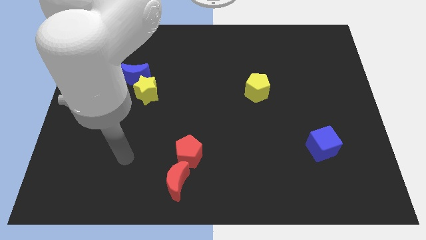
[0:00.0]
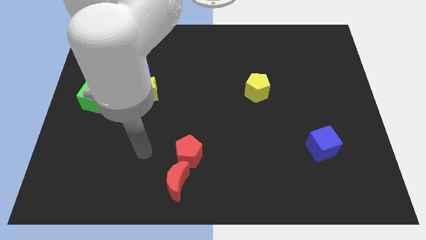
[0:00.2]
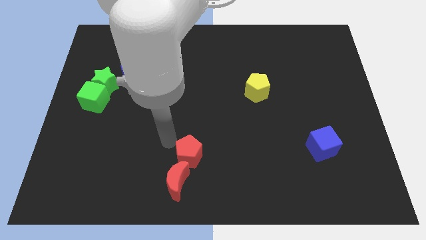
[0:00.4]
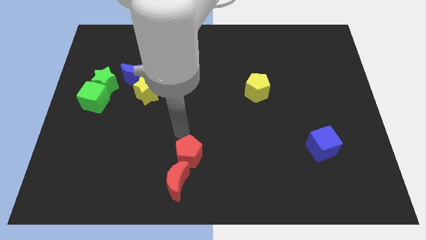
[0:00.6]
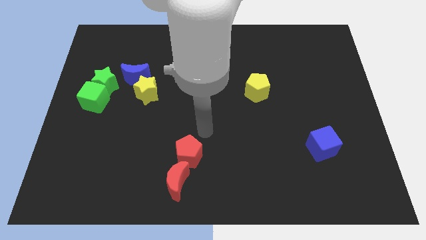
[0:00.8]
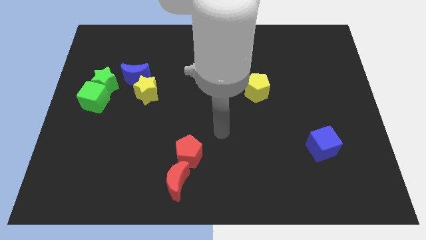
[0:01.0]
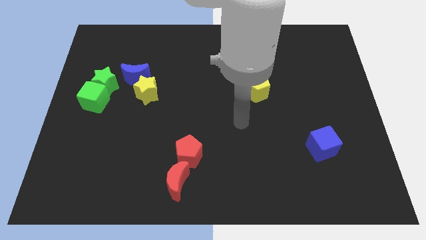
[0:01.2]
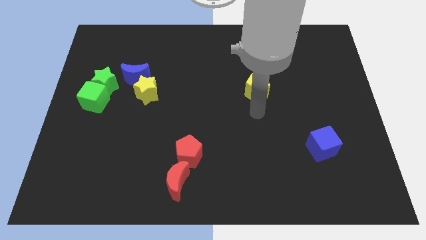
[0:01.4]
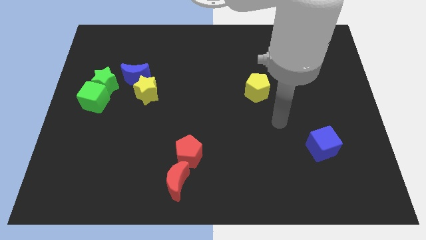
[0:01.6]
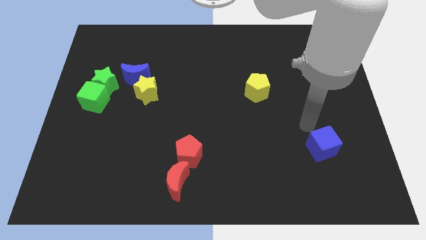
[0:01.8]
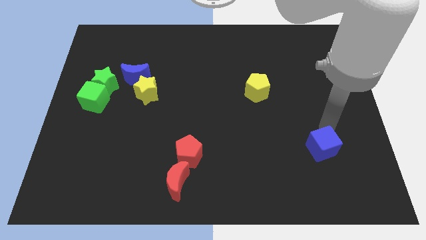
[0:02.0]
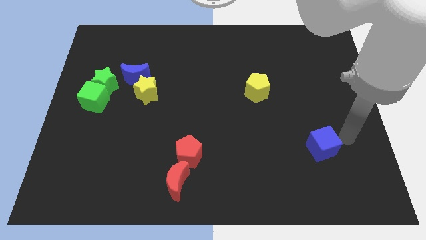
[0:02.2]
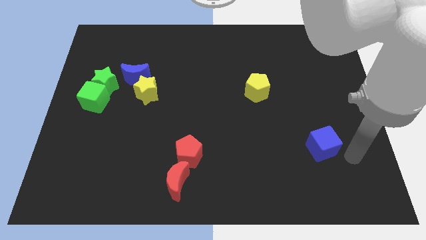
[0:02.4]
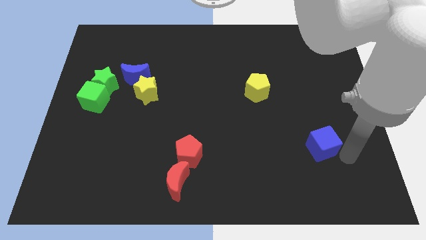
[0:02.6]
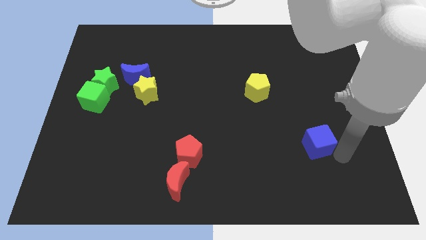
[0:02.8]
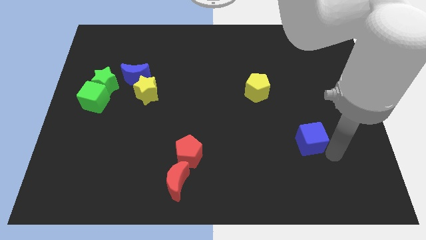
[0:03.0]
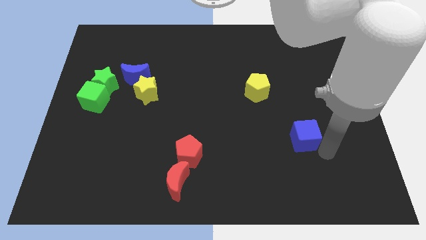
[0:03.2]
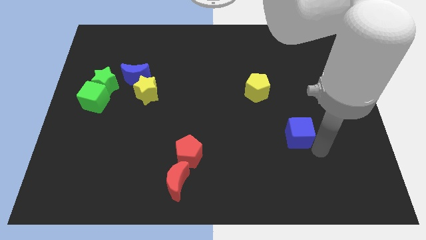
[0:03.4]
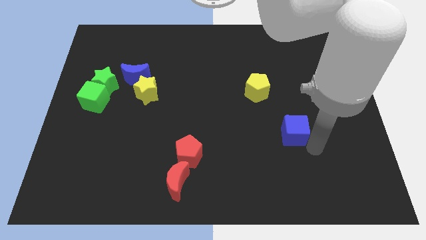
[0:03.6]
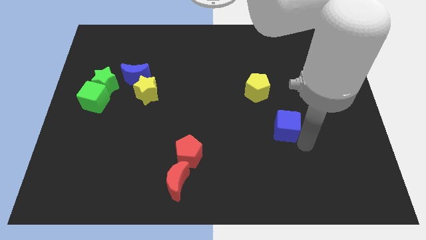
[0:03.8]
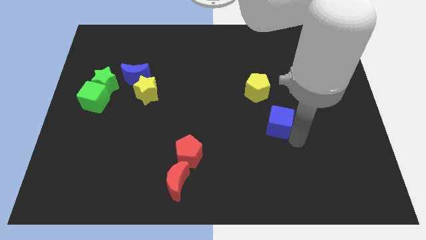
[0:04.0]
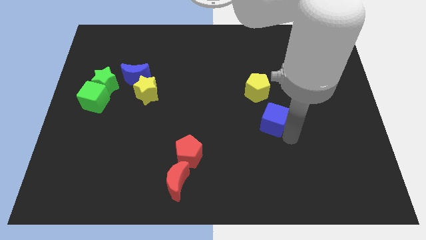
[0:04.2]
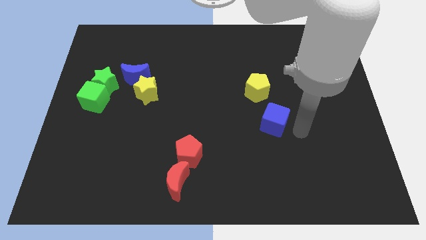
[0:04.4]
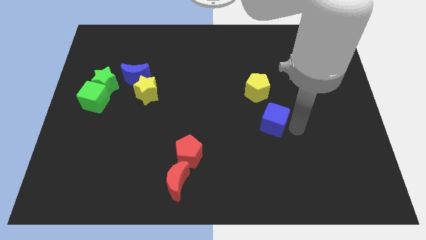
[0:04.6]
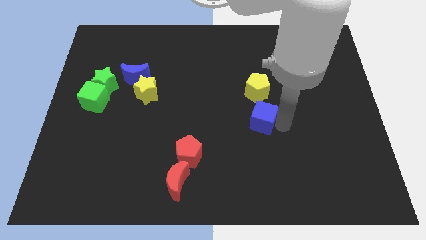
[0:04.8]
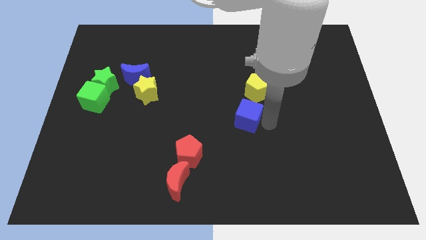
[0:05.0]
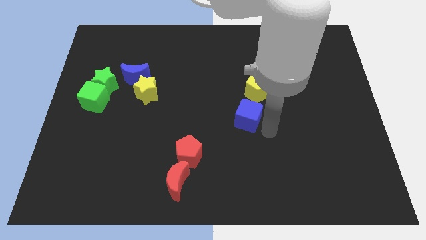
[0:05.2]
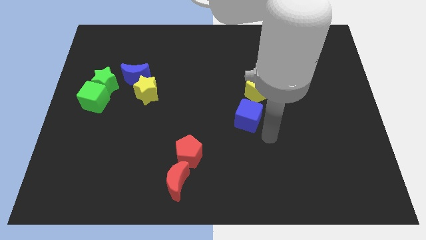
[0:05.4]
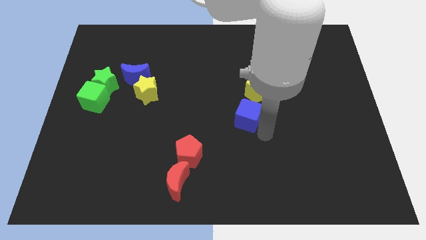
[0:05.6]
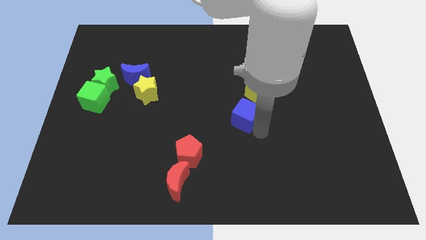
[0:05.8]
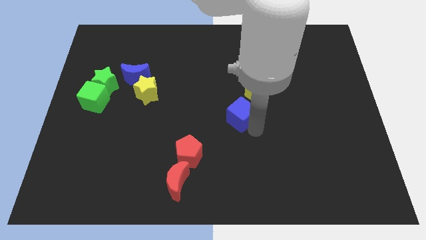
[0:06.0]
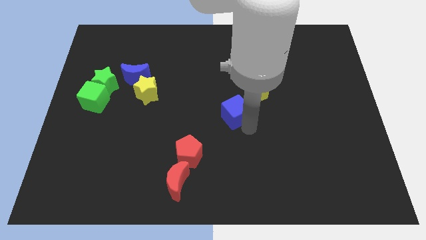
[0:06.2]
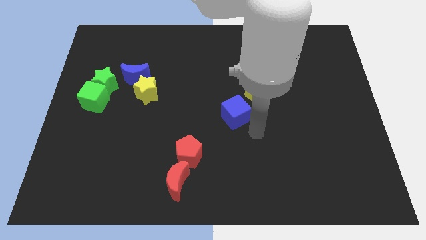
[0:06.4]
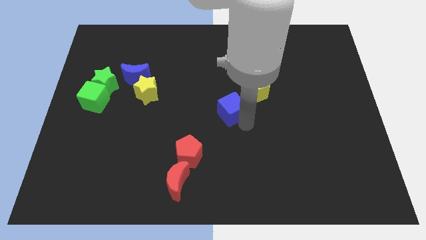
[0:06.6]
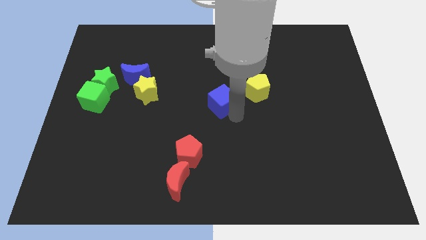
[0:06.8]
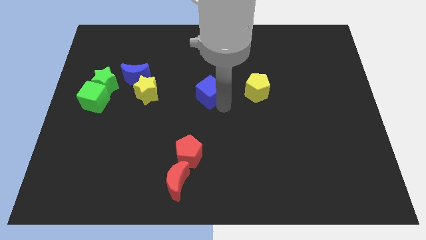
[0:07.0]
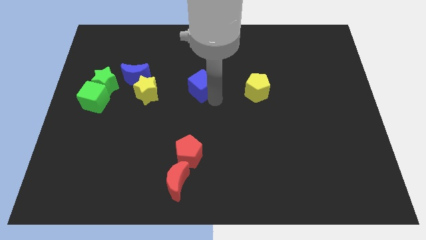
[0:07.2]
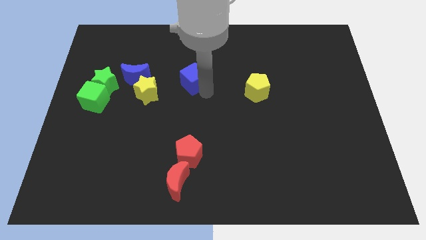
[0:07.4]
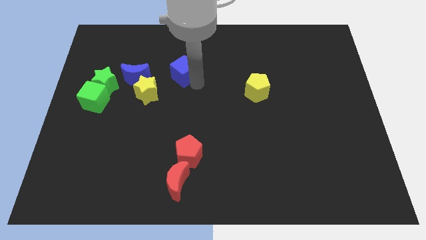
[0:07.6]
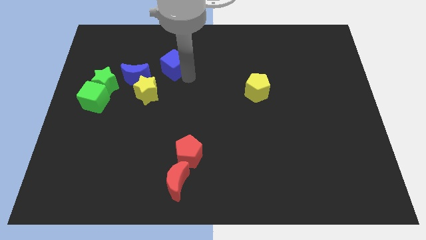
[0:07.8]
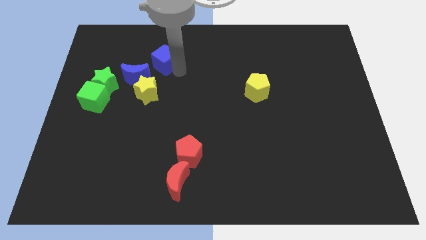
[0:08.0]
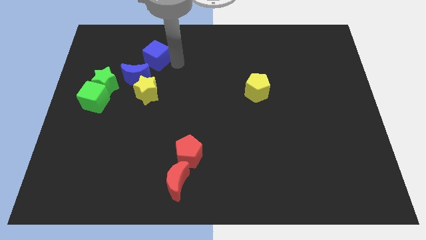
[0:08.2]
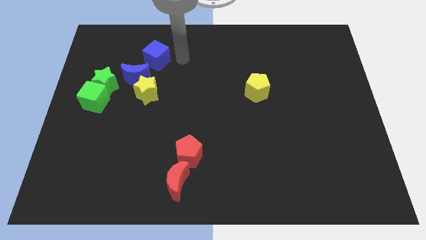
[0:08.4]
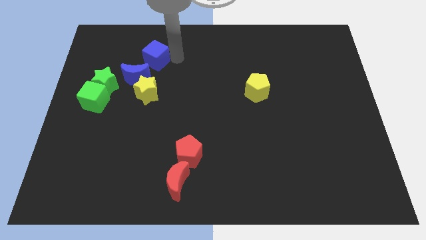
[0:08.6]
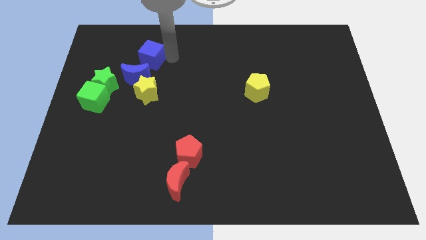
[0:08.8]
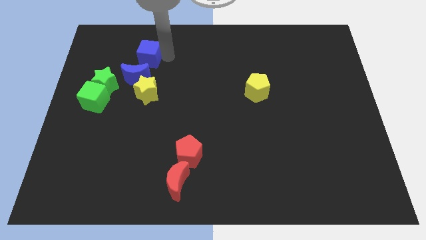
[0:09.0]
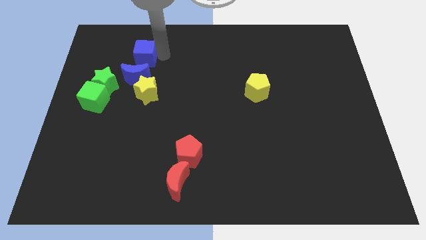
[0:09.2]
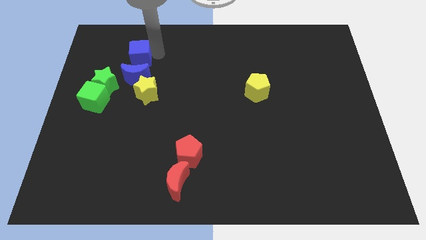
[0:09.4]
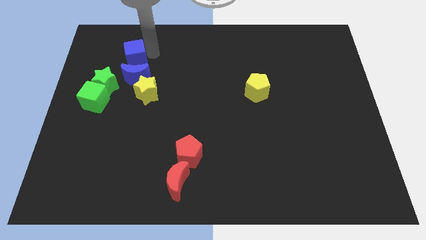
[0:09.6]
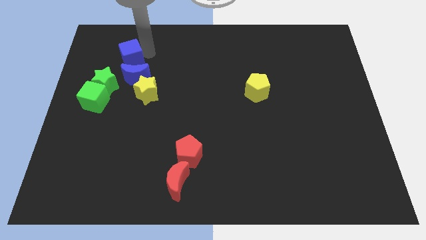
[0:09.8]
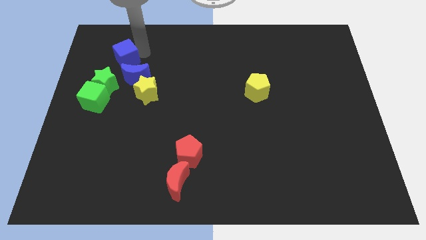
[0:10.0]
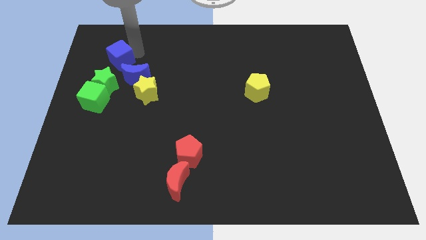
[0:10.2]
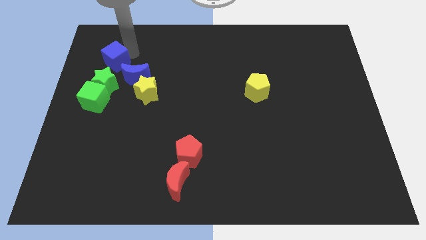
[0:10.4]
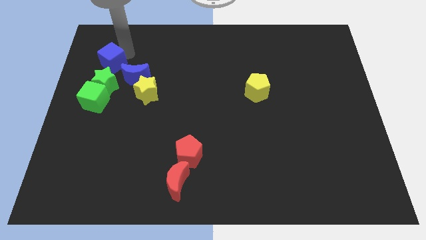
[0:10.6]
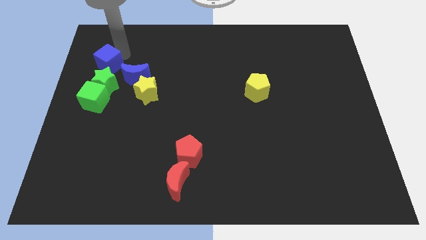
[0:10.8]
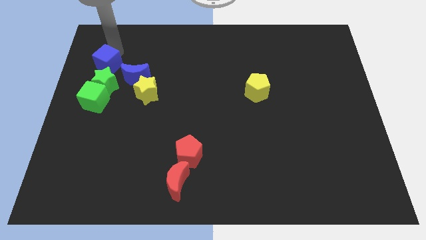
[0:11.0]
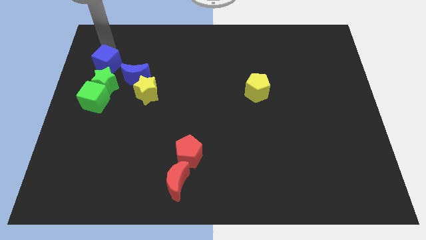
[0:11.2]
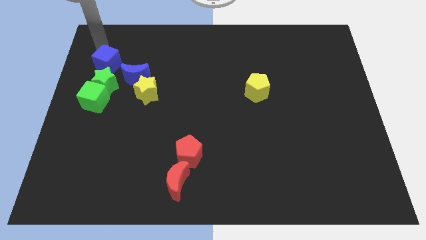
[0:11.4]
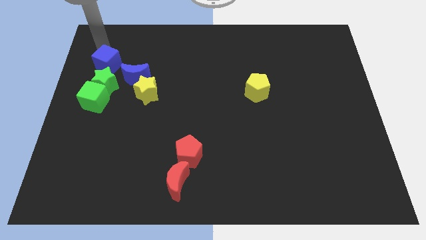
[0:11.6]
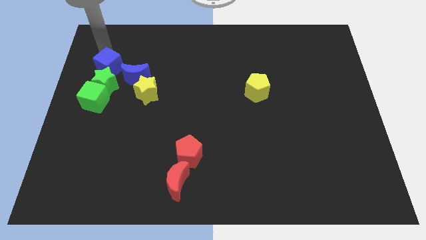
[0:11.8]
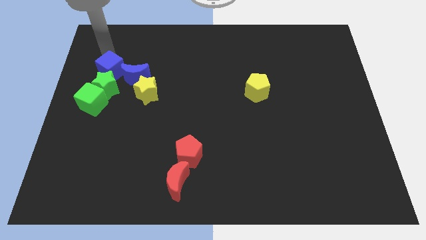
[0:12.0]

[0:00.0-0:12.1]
put the blue cube diagonally up and to the left of the yellow star

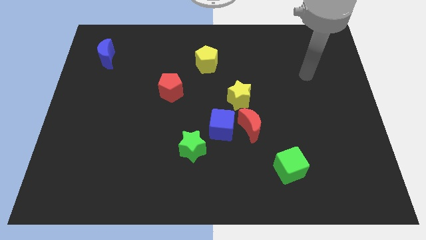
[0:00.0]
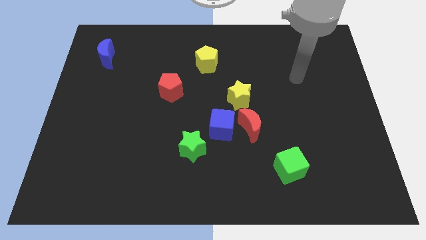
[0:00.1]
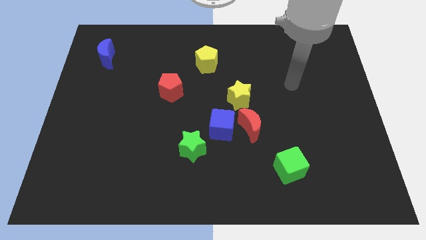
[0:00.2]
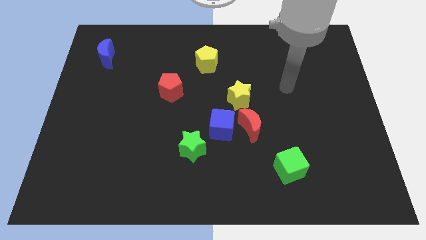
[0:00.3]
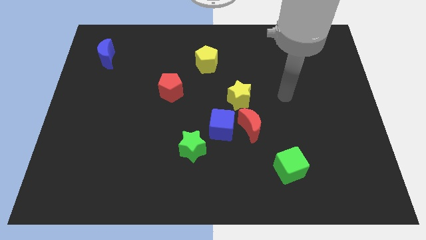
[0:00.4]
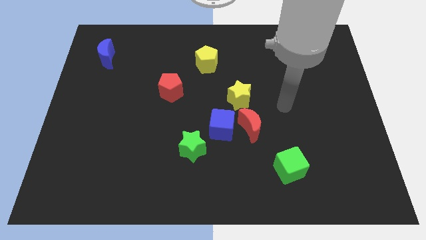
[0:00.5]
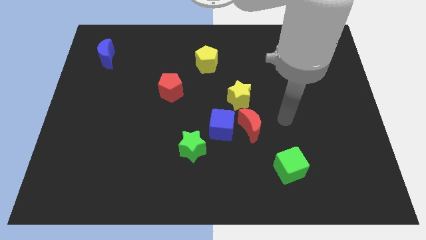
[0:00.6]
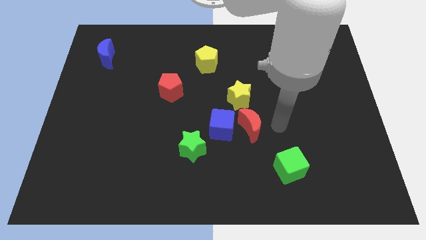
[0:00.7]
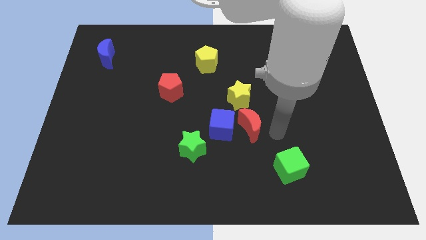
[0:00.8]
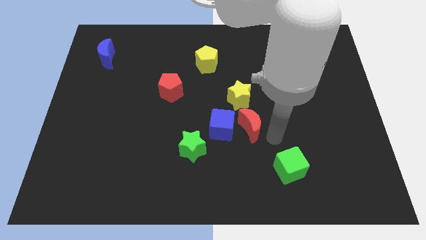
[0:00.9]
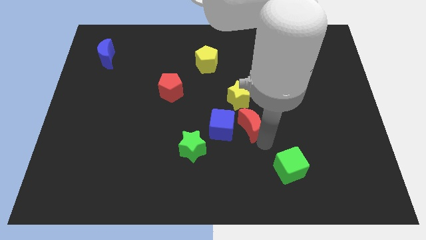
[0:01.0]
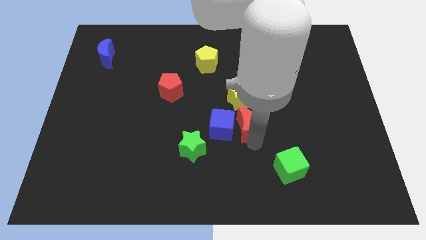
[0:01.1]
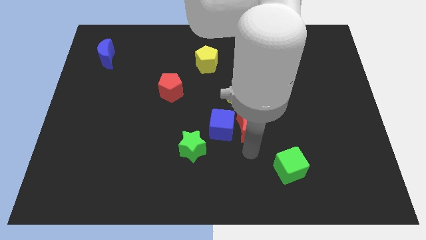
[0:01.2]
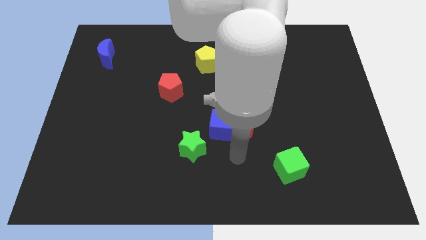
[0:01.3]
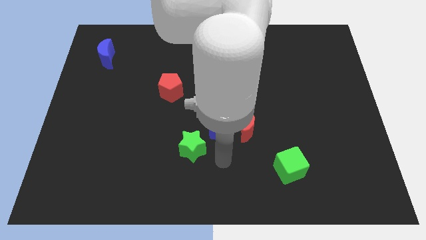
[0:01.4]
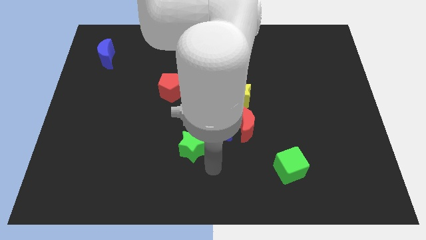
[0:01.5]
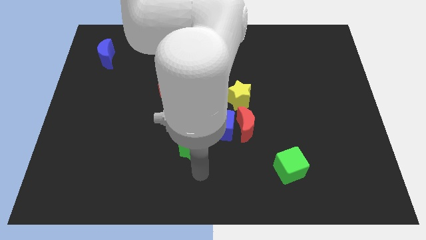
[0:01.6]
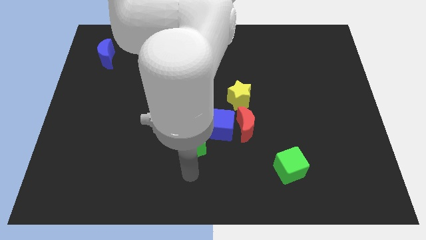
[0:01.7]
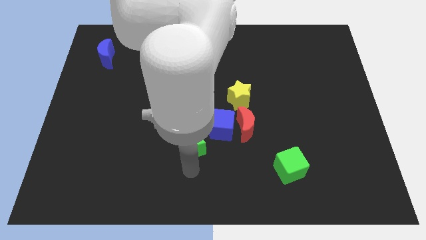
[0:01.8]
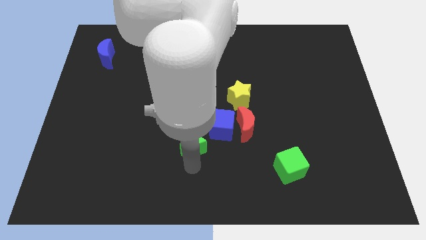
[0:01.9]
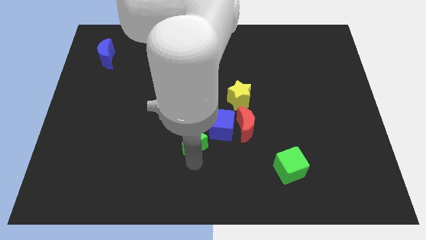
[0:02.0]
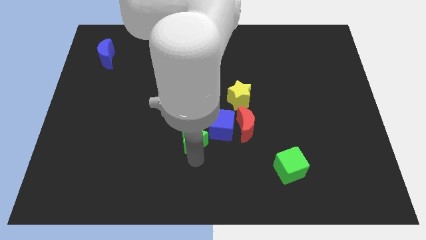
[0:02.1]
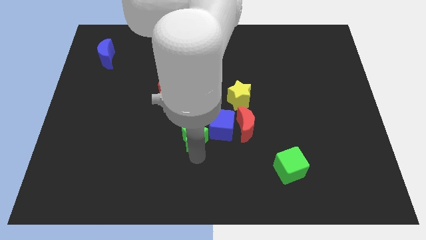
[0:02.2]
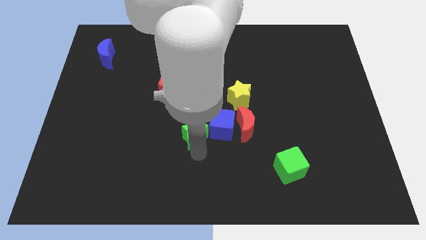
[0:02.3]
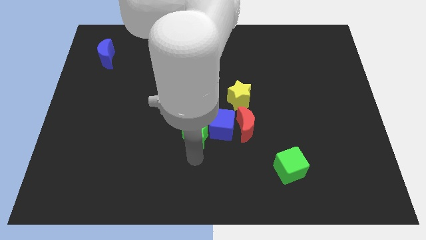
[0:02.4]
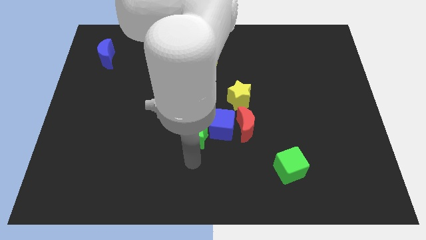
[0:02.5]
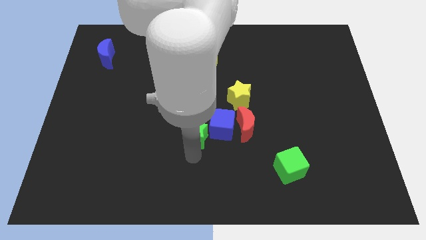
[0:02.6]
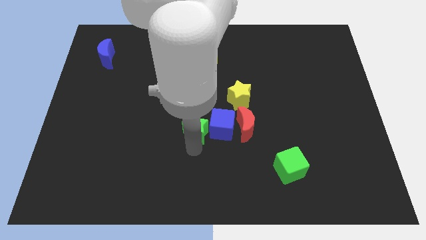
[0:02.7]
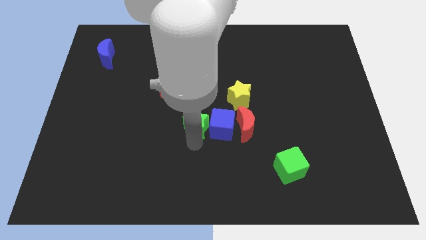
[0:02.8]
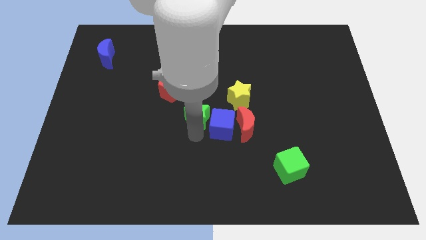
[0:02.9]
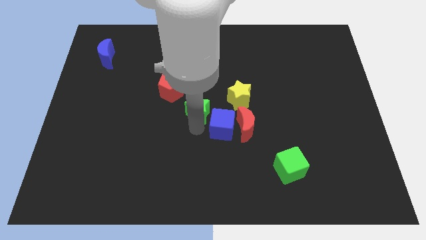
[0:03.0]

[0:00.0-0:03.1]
put the green star just left of the yellow star
